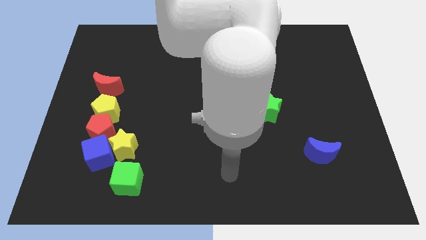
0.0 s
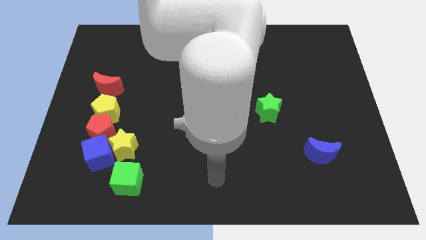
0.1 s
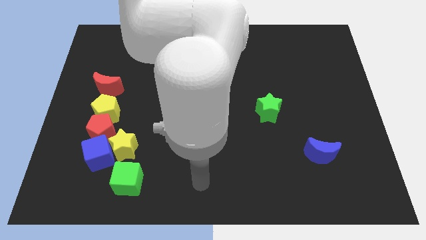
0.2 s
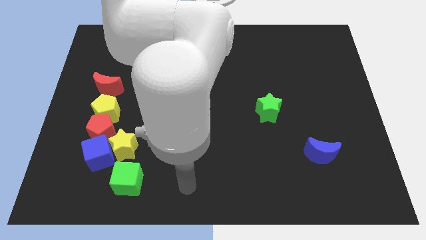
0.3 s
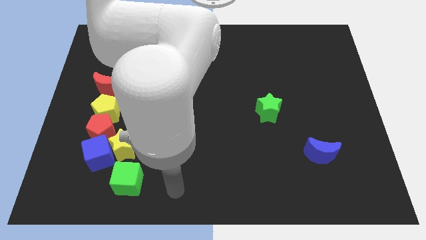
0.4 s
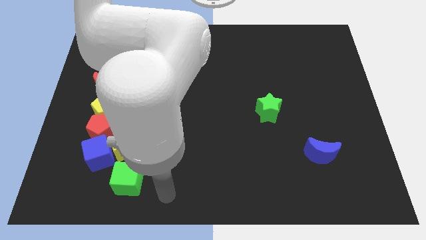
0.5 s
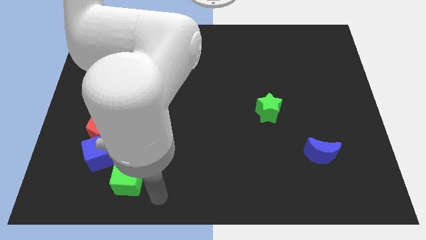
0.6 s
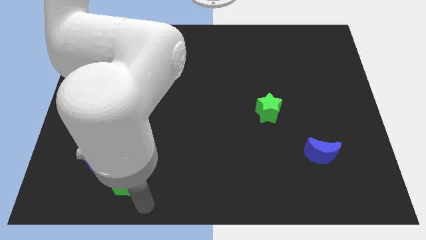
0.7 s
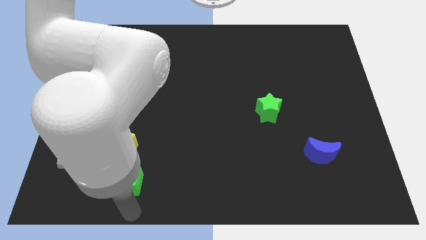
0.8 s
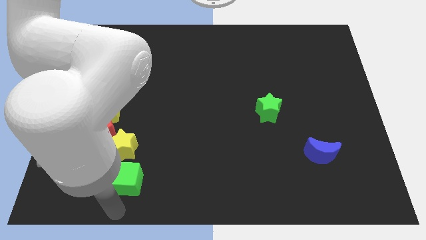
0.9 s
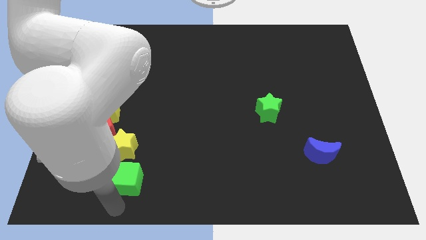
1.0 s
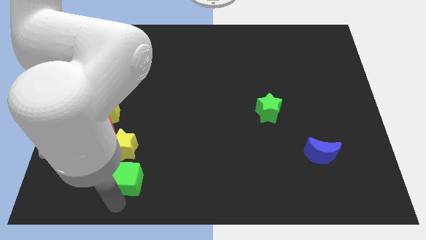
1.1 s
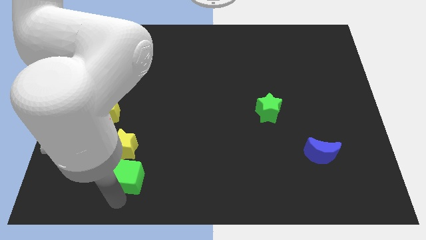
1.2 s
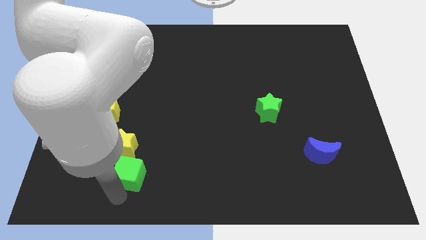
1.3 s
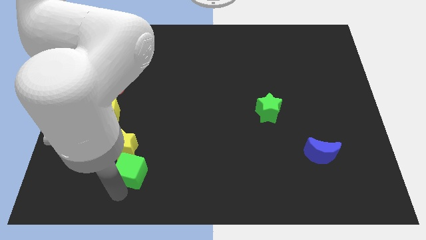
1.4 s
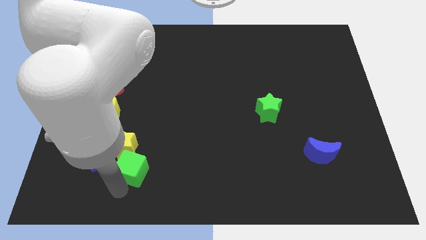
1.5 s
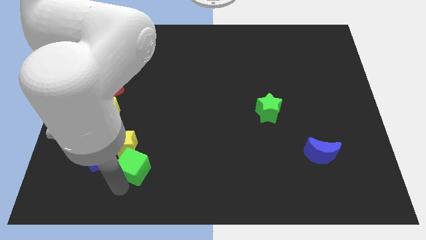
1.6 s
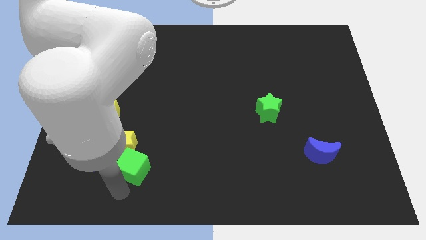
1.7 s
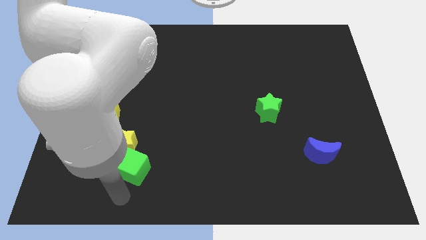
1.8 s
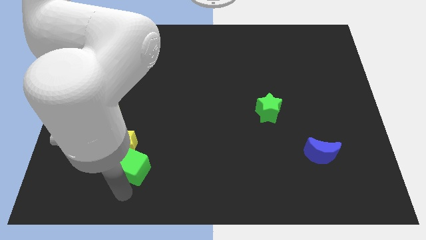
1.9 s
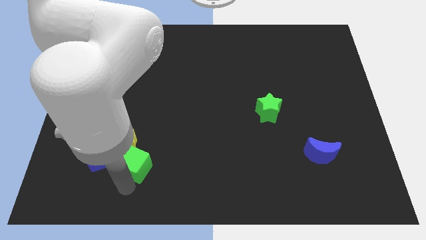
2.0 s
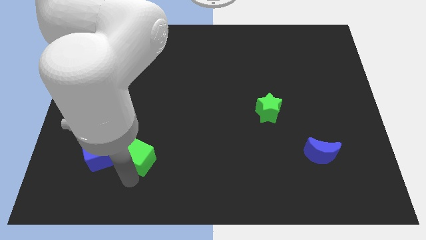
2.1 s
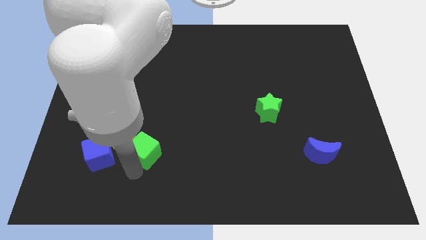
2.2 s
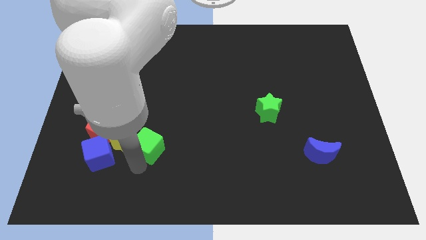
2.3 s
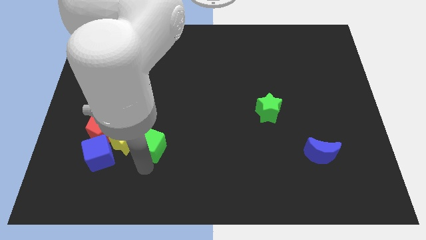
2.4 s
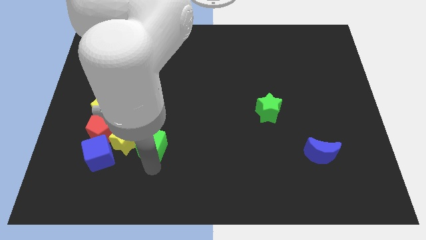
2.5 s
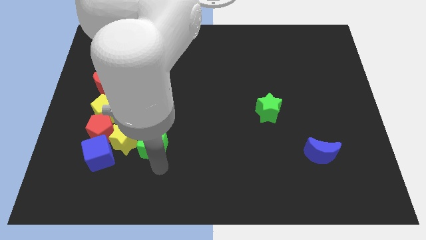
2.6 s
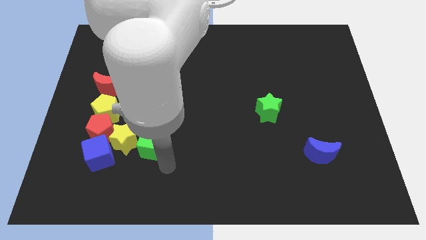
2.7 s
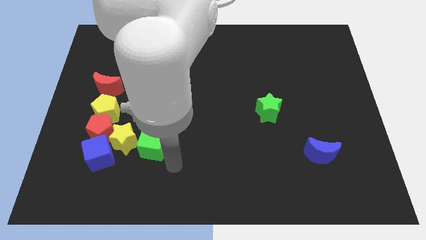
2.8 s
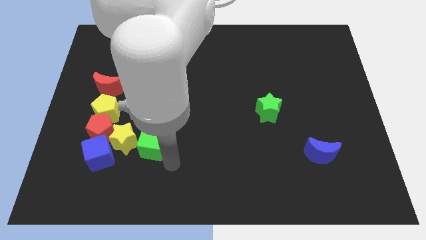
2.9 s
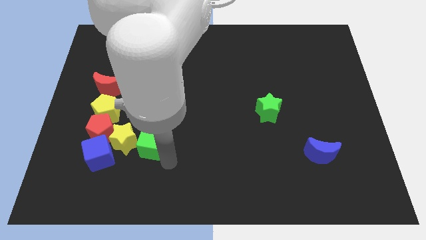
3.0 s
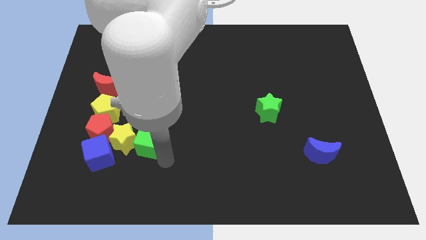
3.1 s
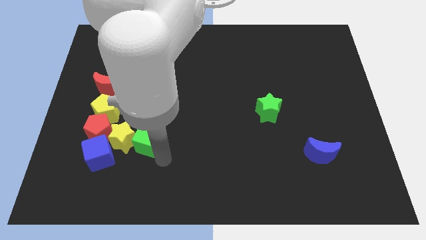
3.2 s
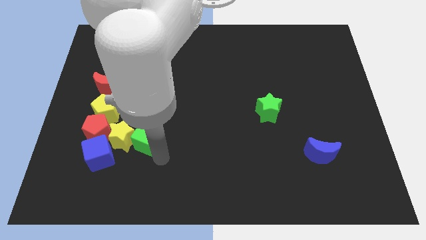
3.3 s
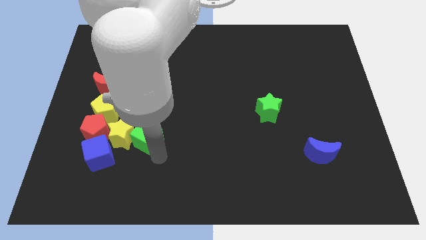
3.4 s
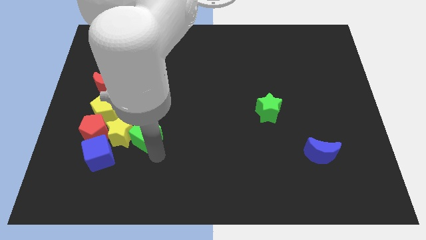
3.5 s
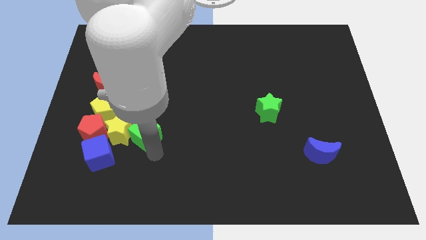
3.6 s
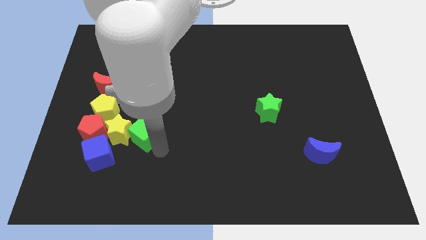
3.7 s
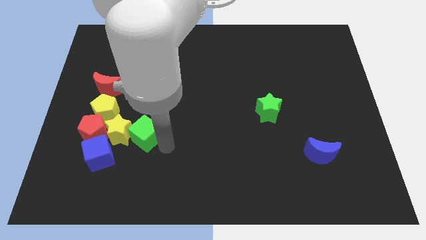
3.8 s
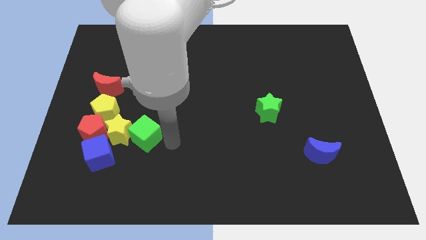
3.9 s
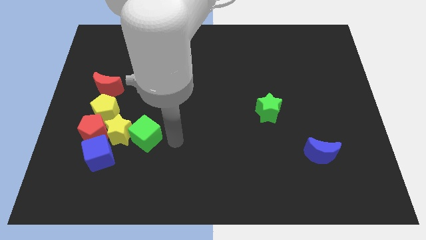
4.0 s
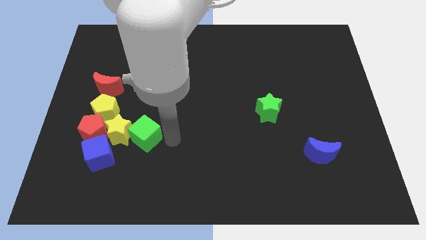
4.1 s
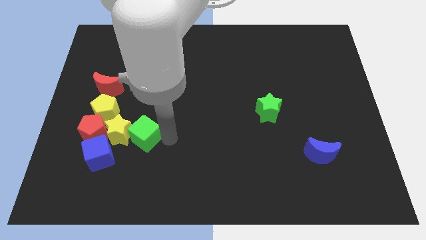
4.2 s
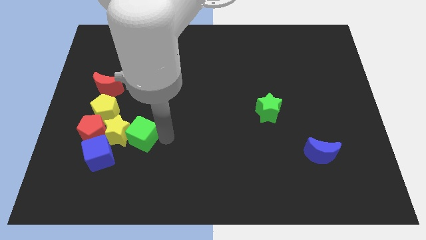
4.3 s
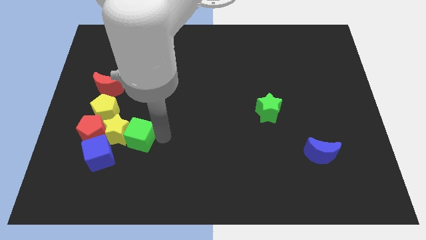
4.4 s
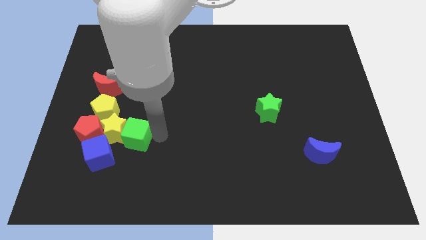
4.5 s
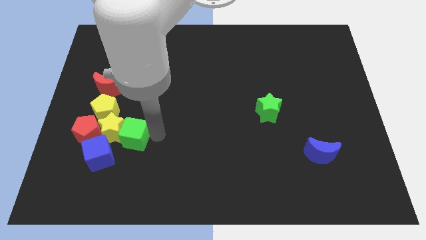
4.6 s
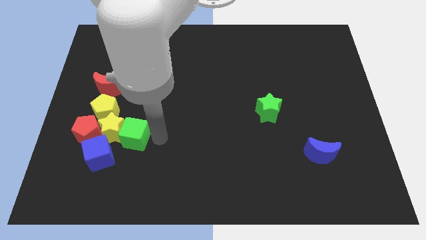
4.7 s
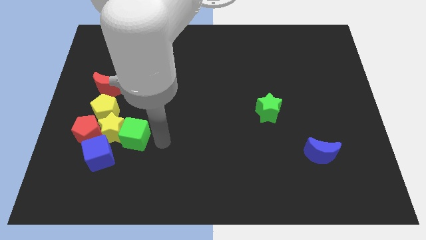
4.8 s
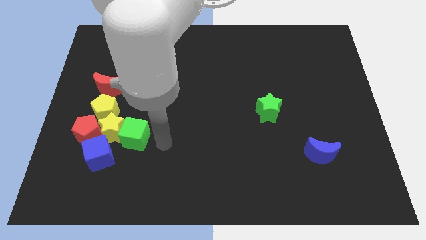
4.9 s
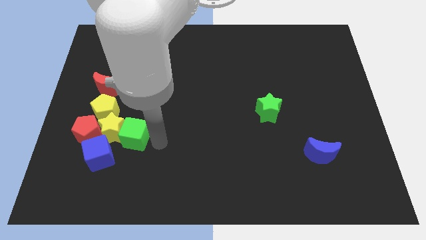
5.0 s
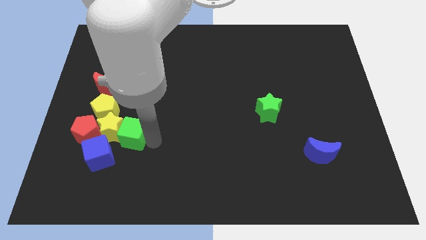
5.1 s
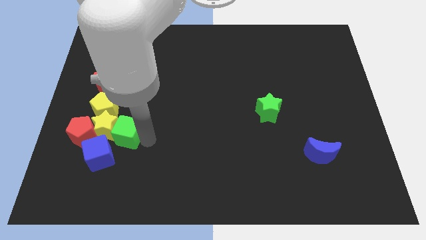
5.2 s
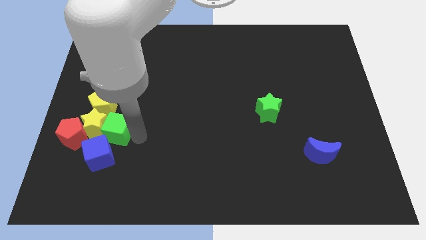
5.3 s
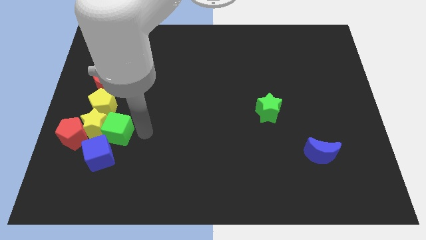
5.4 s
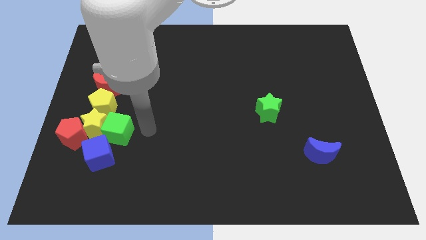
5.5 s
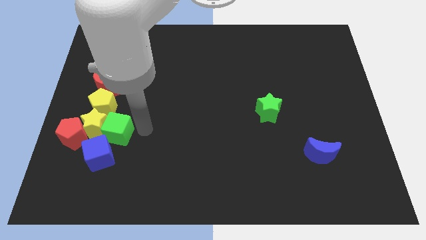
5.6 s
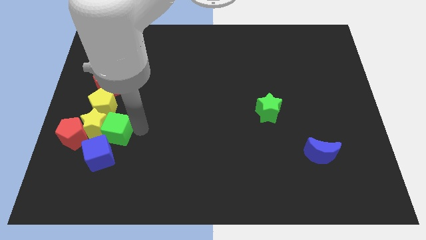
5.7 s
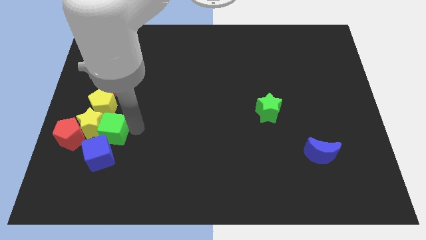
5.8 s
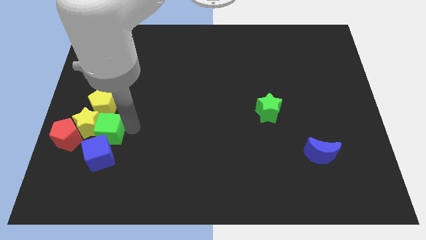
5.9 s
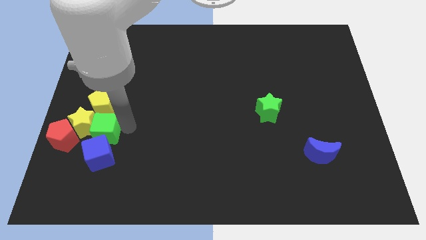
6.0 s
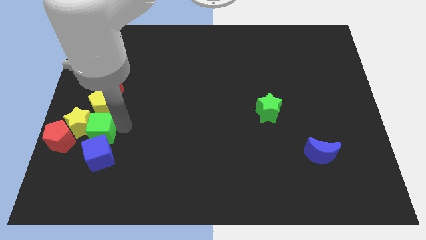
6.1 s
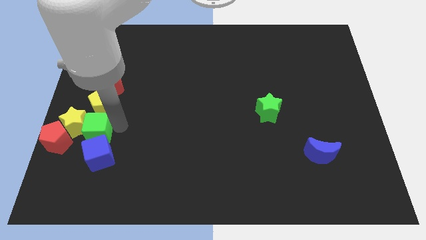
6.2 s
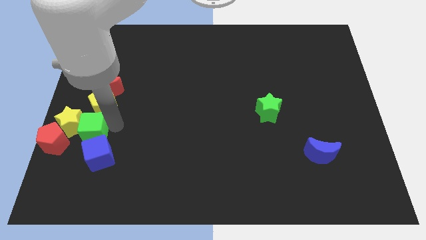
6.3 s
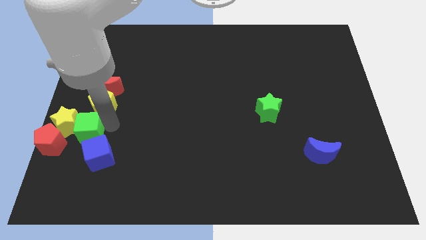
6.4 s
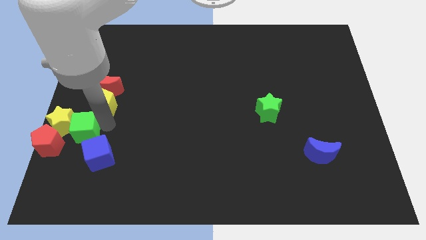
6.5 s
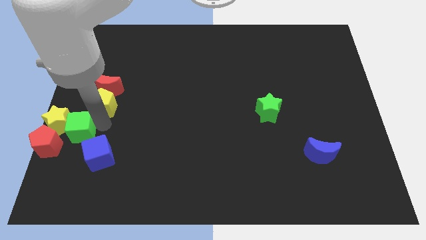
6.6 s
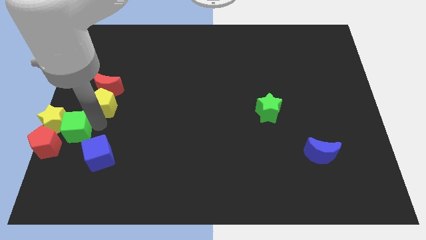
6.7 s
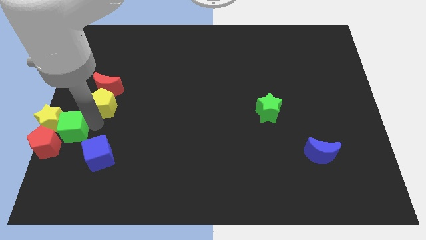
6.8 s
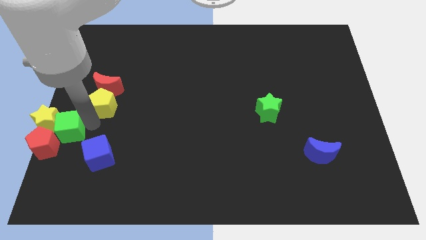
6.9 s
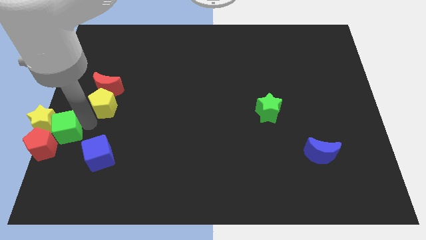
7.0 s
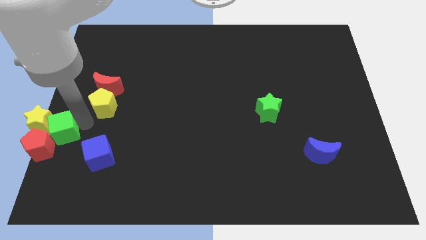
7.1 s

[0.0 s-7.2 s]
slide the green cube close to the red pentagon

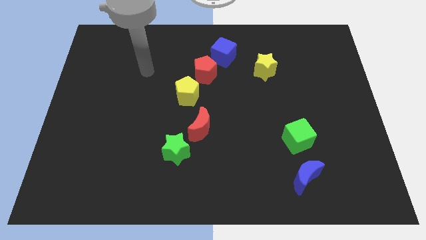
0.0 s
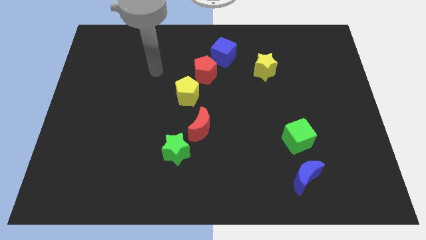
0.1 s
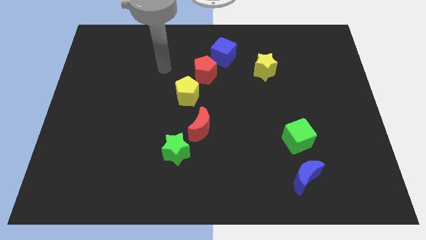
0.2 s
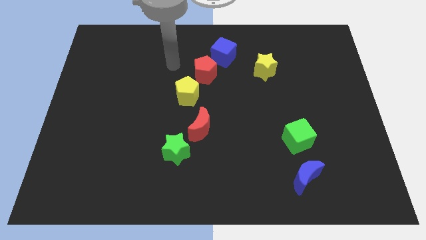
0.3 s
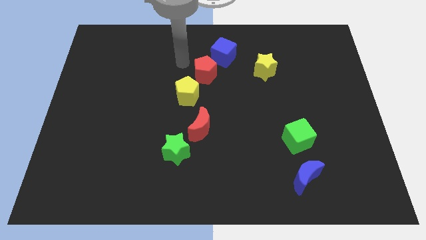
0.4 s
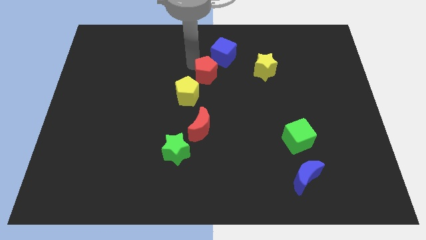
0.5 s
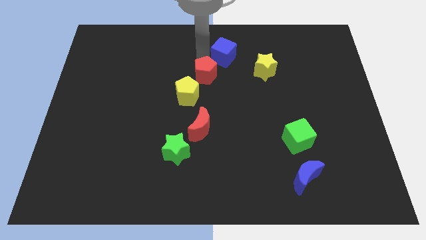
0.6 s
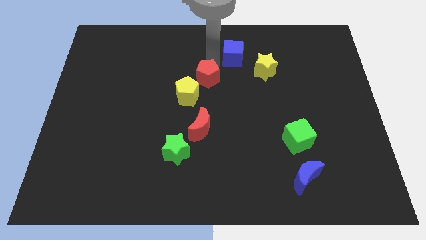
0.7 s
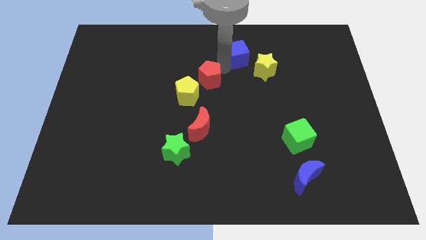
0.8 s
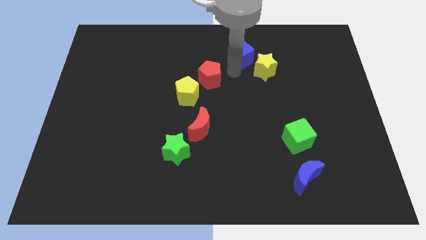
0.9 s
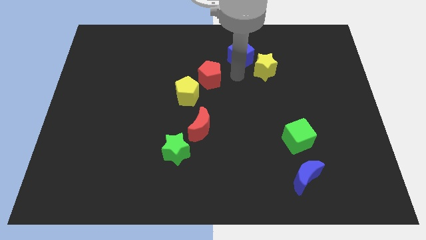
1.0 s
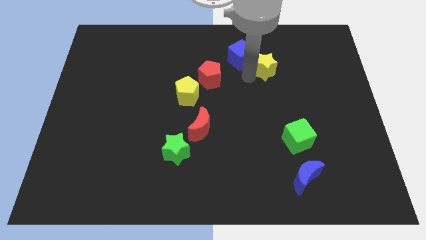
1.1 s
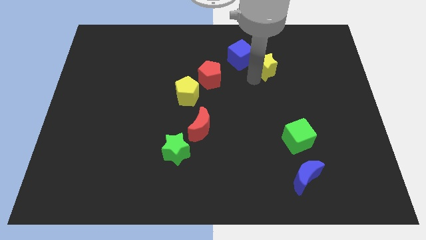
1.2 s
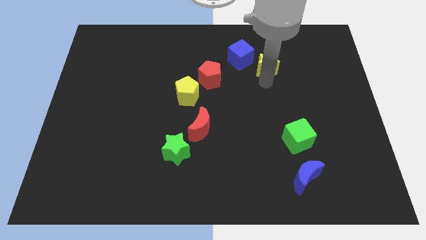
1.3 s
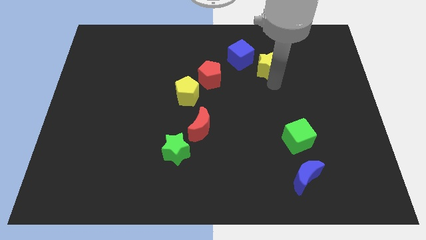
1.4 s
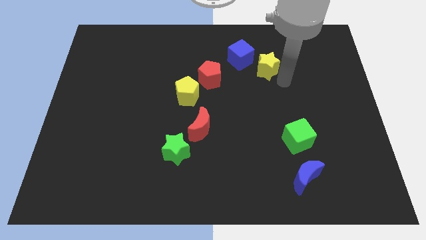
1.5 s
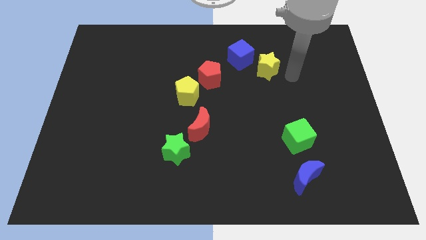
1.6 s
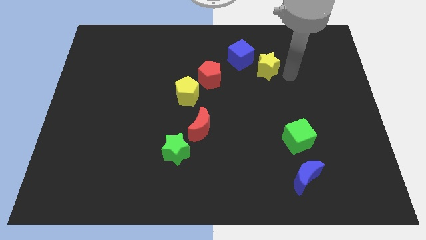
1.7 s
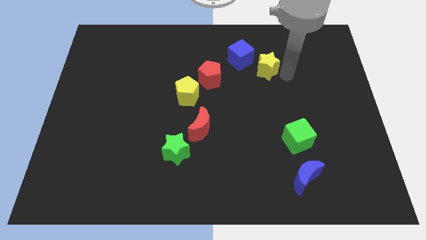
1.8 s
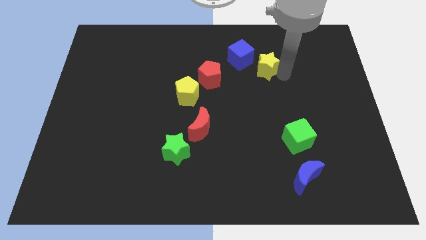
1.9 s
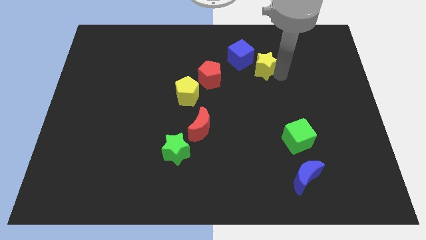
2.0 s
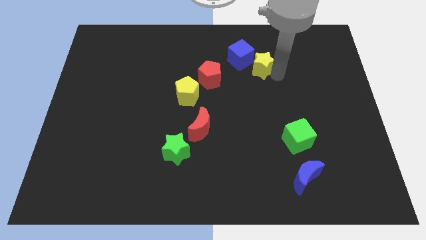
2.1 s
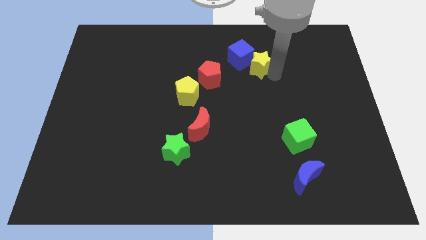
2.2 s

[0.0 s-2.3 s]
slide the yellow star close to the blue cube
